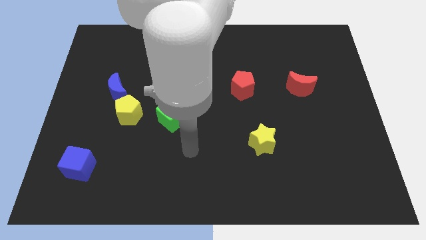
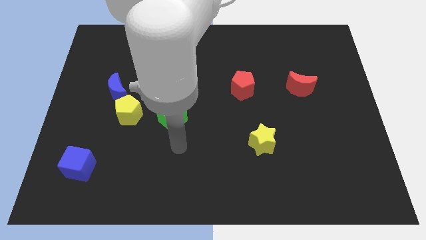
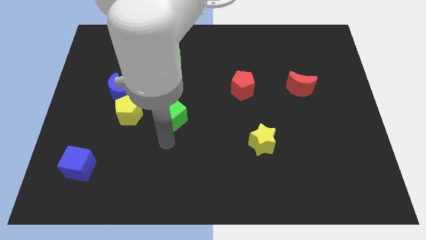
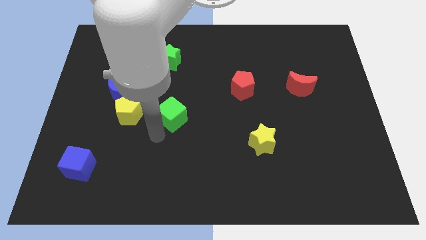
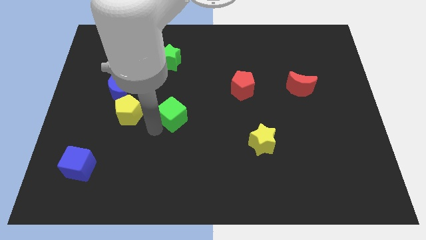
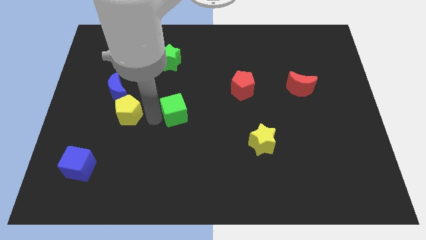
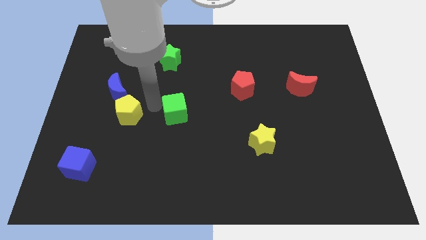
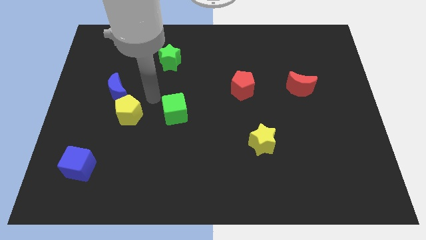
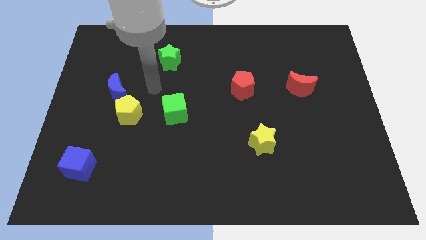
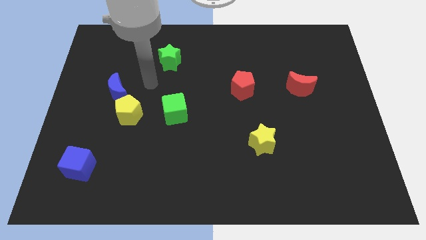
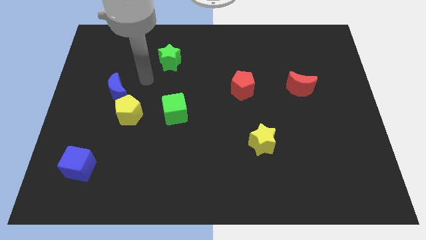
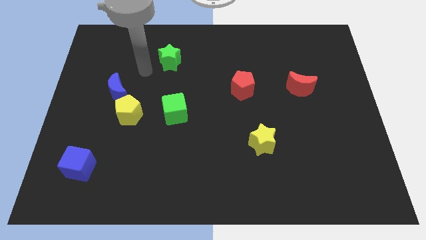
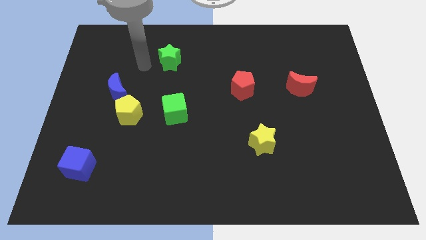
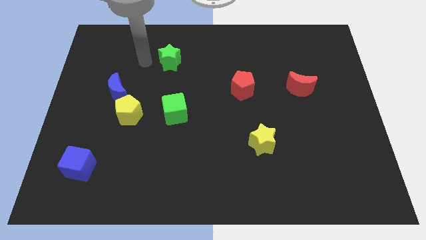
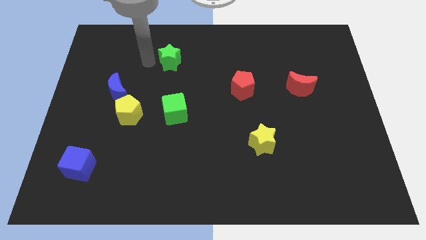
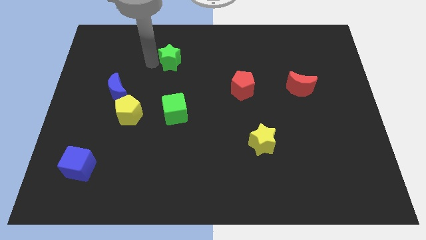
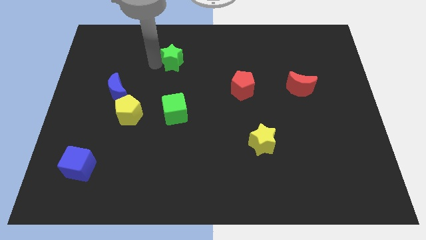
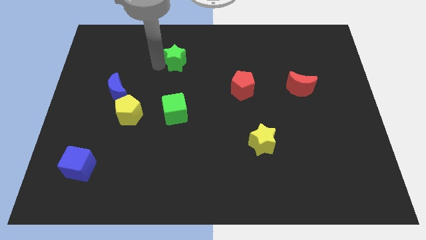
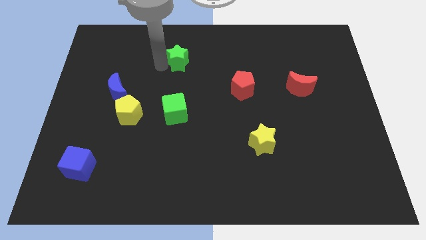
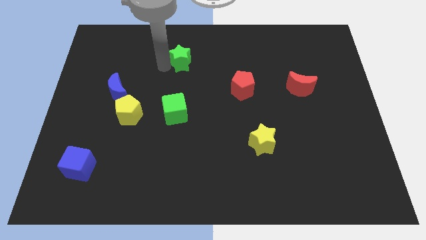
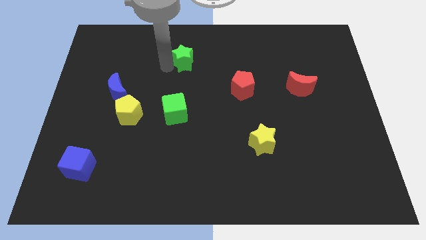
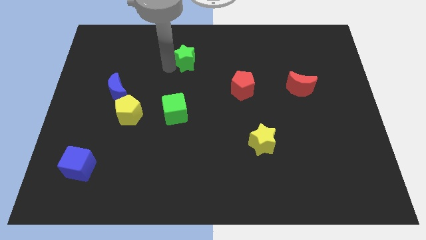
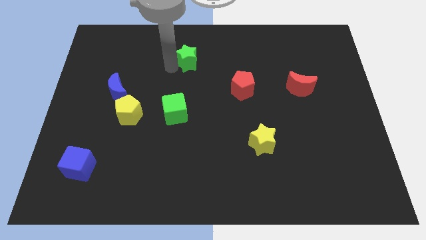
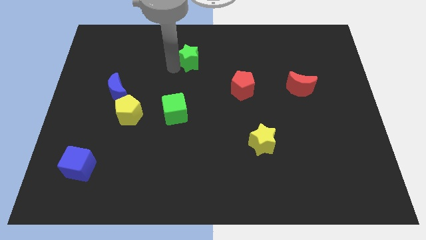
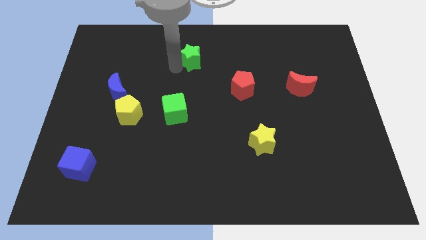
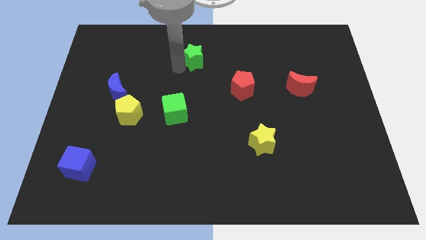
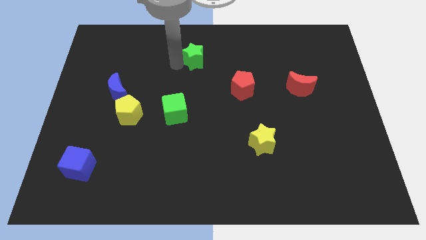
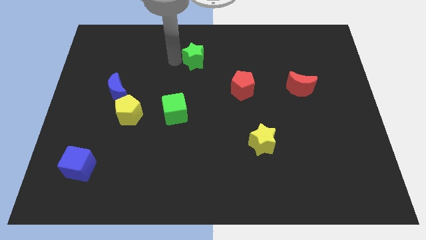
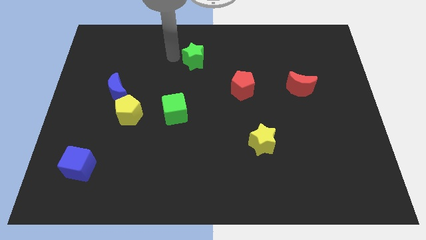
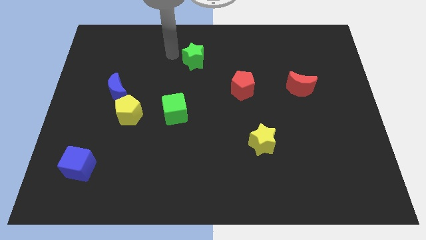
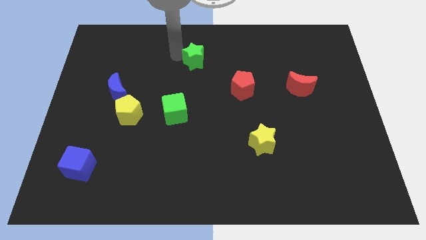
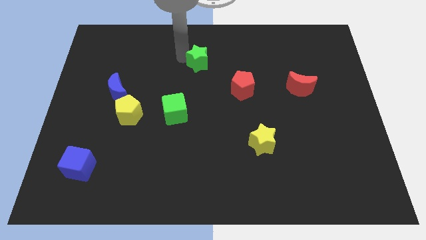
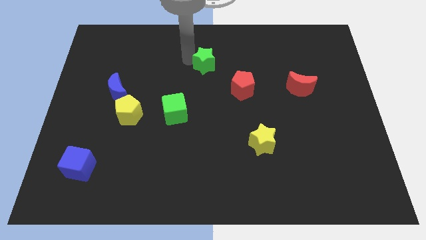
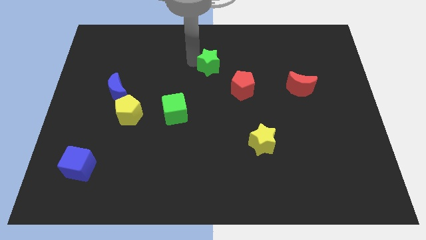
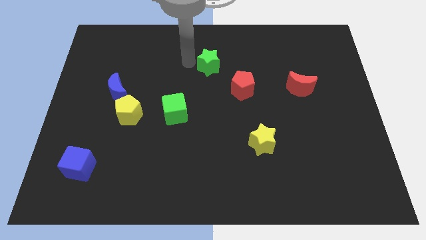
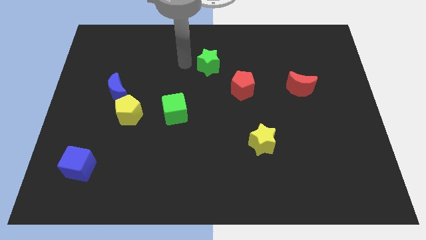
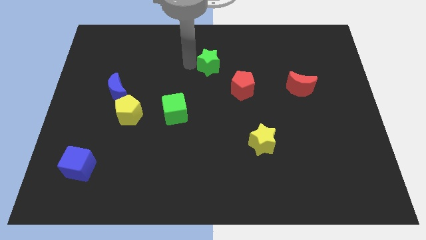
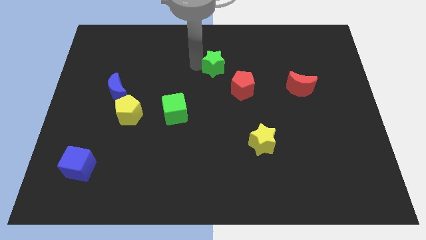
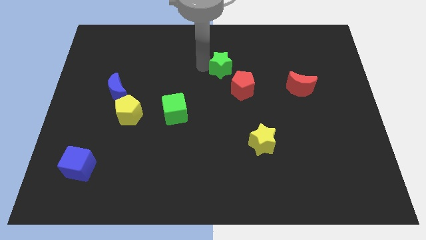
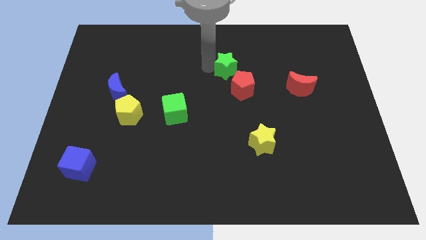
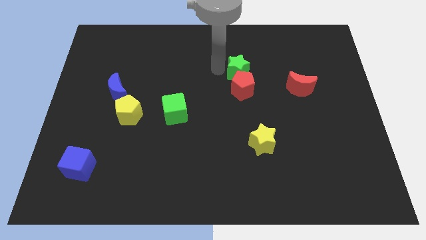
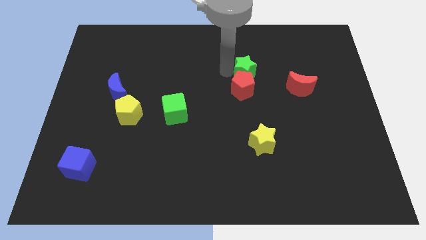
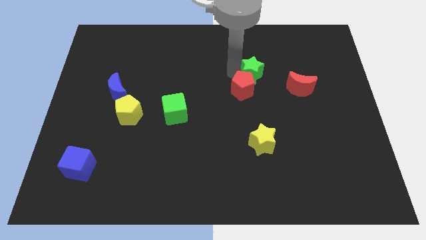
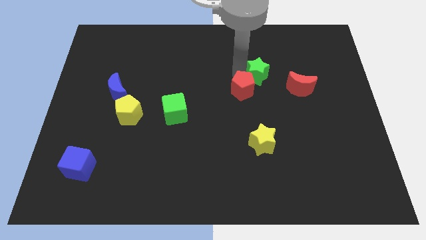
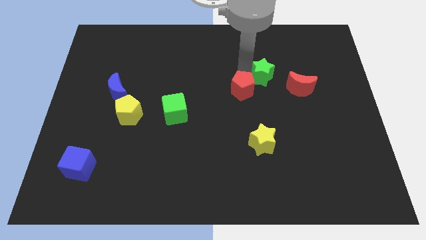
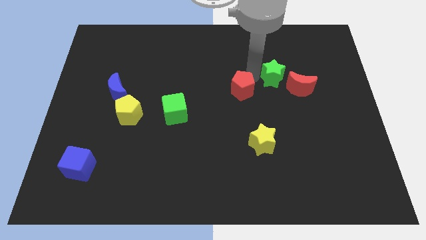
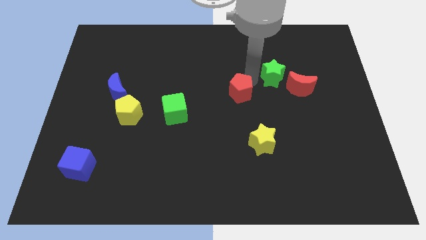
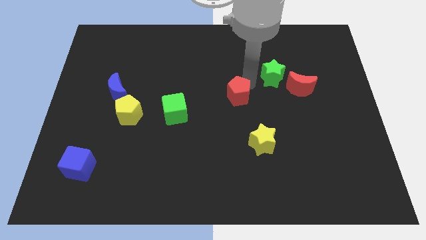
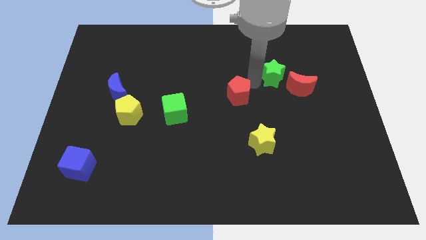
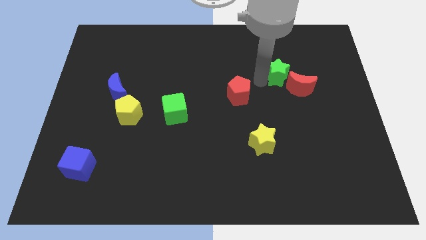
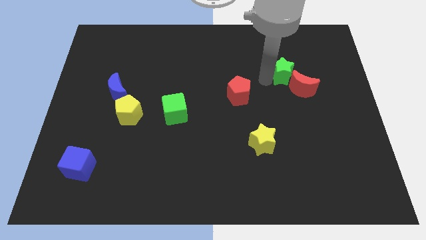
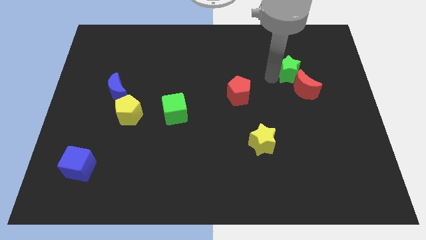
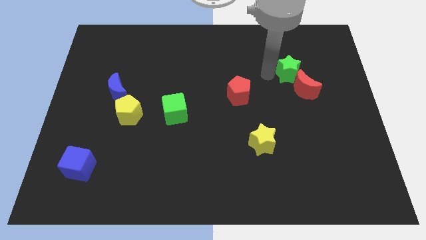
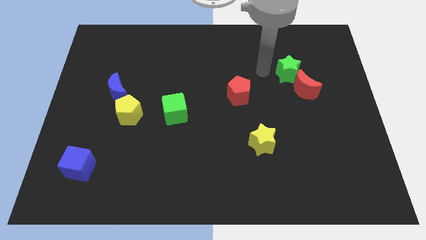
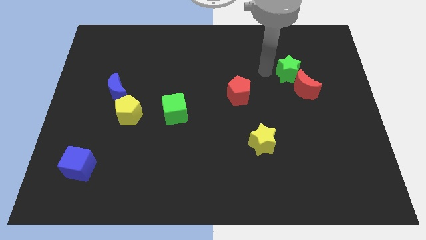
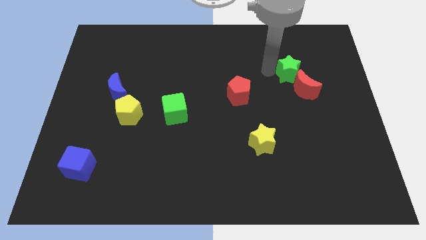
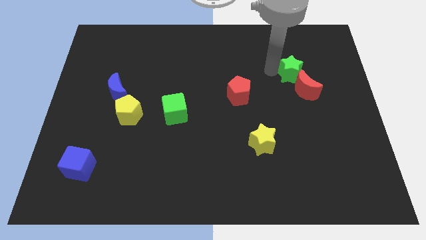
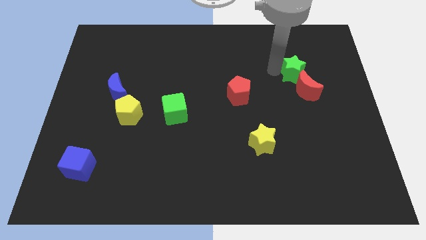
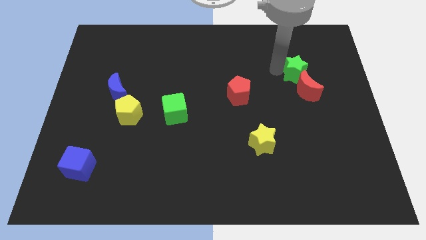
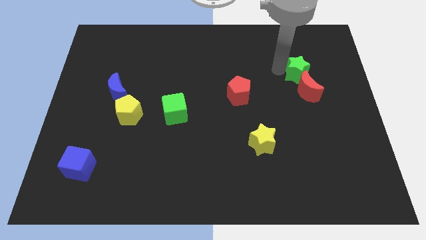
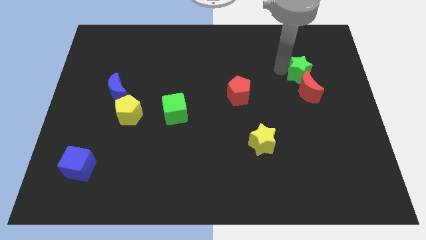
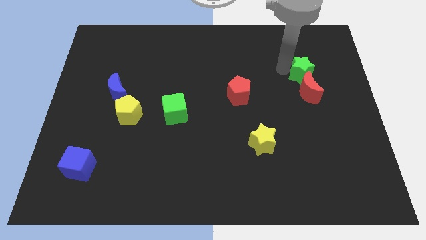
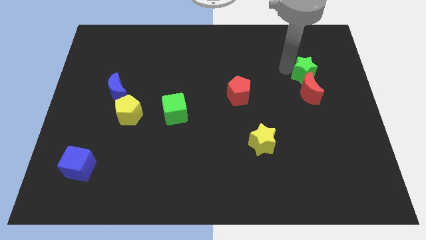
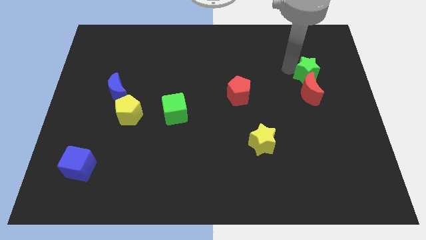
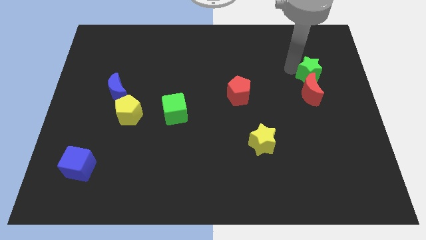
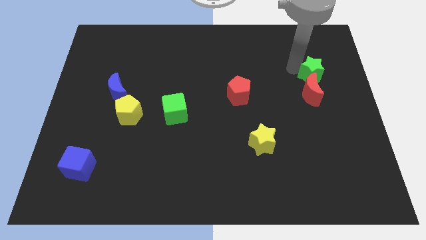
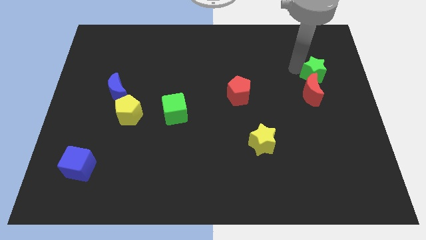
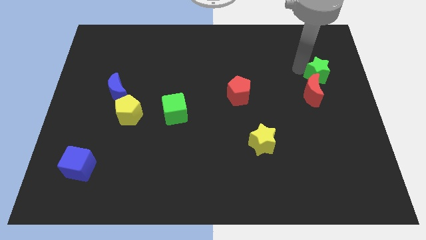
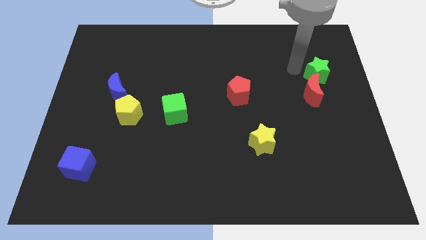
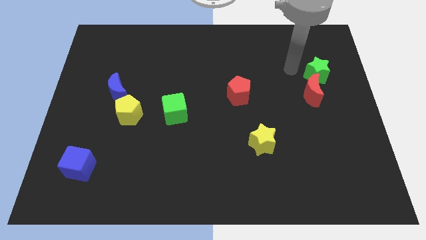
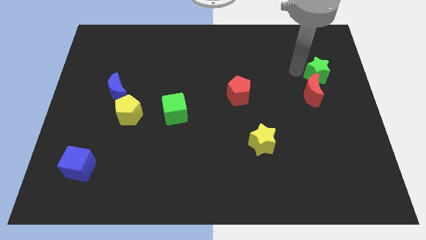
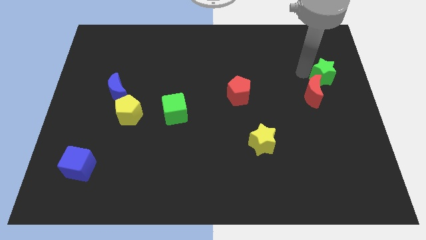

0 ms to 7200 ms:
put the green star to the right side
